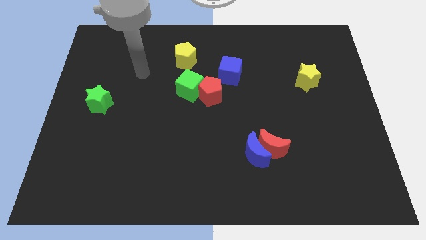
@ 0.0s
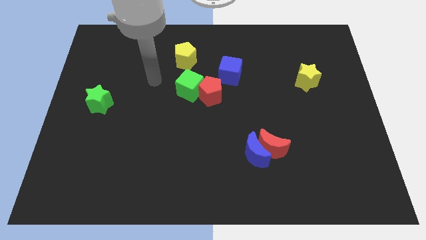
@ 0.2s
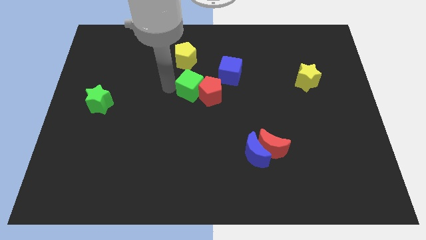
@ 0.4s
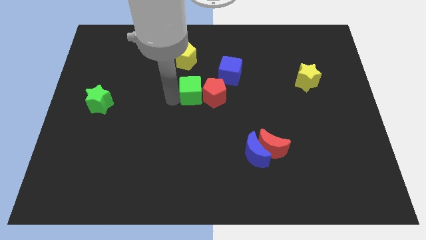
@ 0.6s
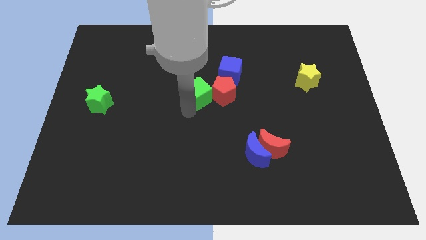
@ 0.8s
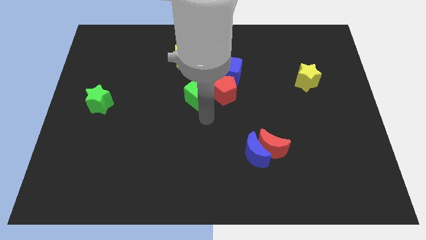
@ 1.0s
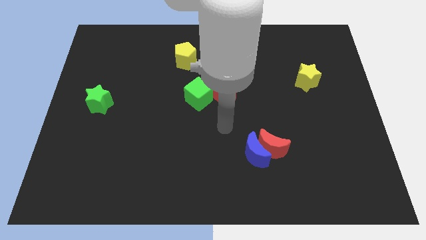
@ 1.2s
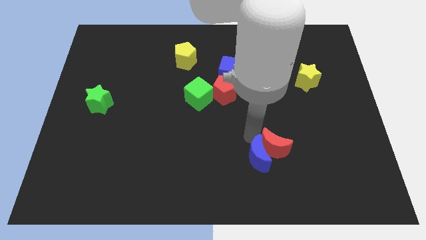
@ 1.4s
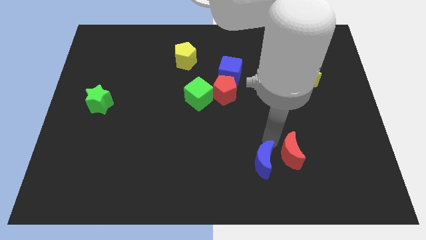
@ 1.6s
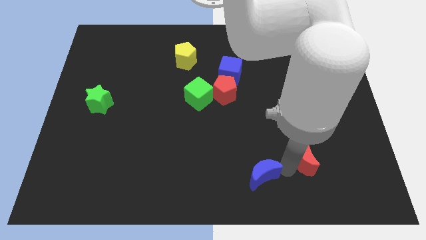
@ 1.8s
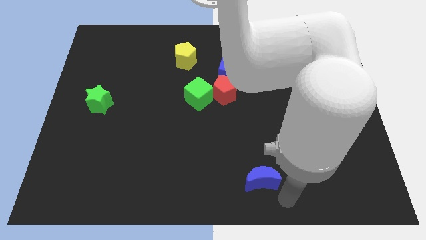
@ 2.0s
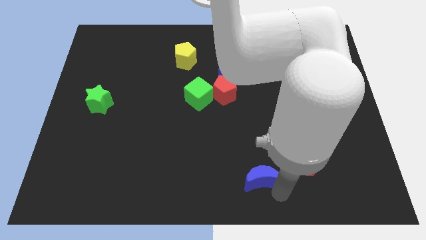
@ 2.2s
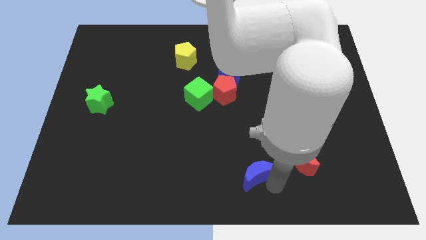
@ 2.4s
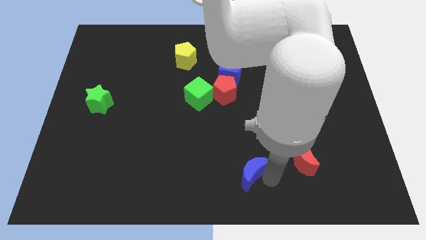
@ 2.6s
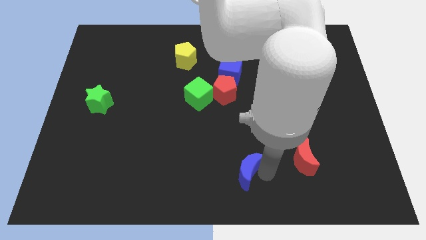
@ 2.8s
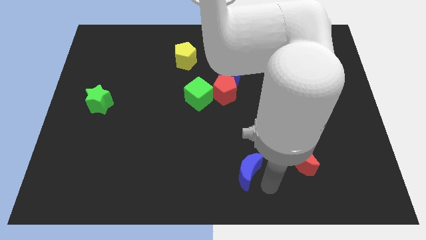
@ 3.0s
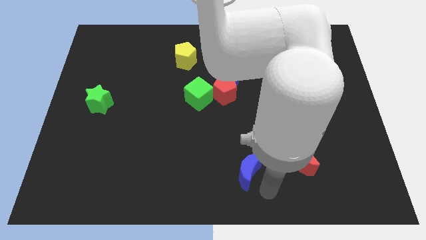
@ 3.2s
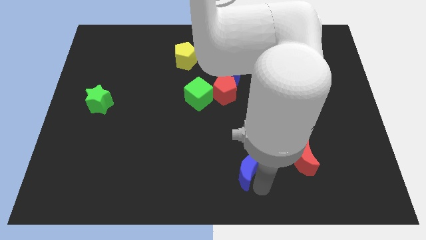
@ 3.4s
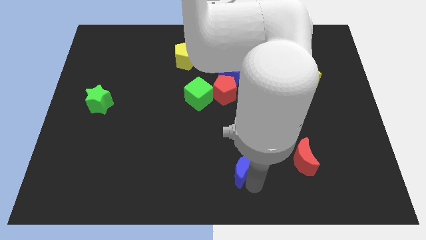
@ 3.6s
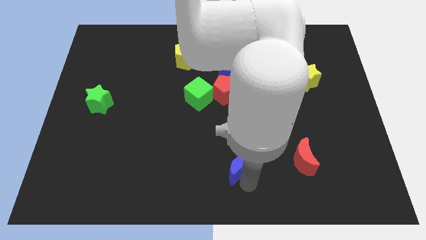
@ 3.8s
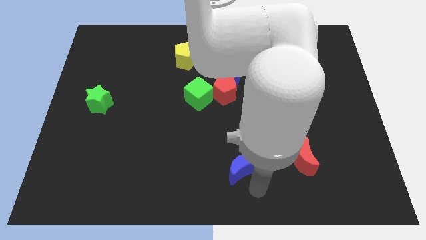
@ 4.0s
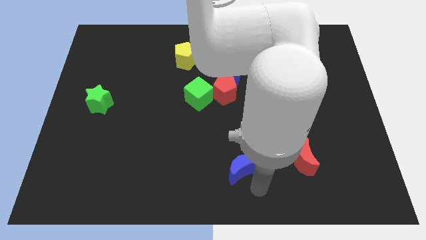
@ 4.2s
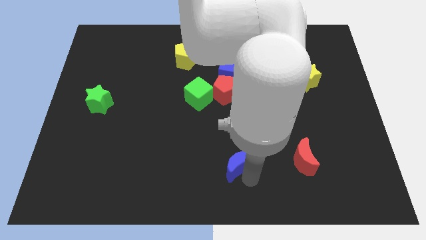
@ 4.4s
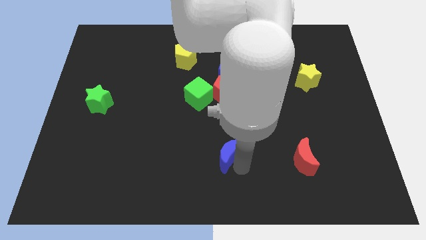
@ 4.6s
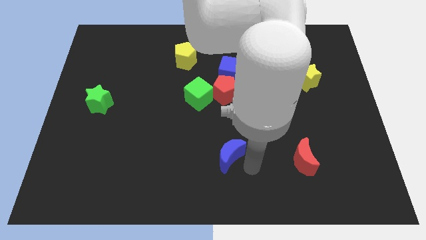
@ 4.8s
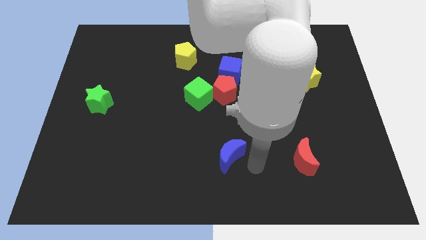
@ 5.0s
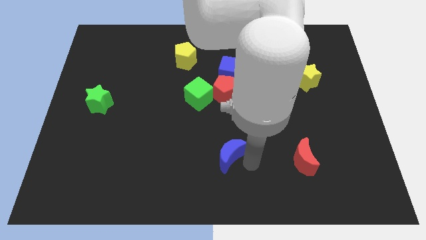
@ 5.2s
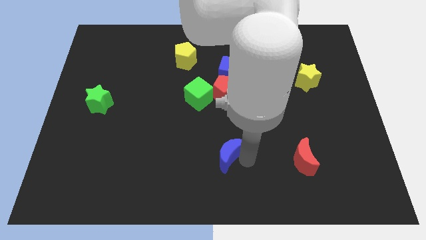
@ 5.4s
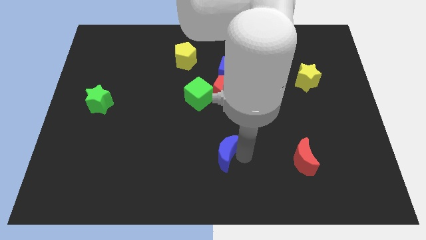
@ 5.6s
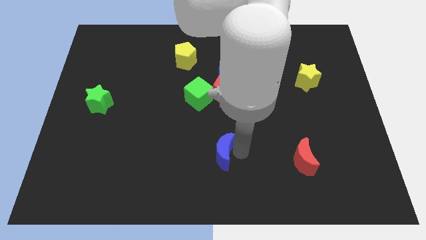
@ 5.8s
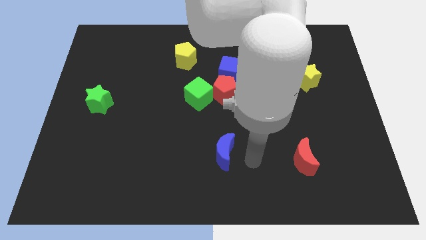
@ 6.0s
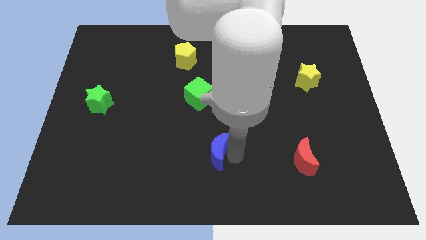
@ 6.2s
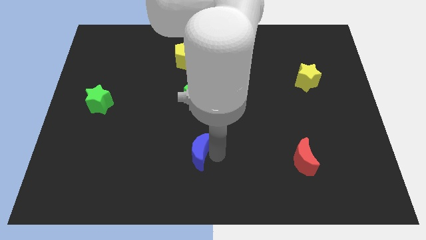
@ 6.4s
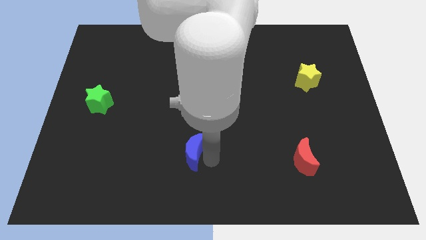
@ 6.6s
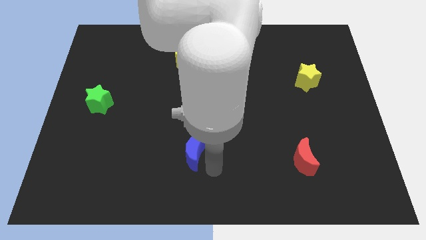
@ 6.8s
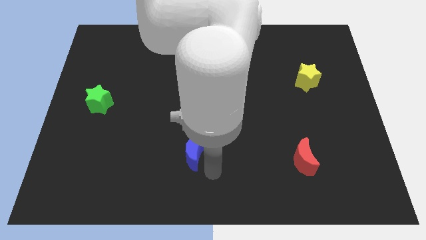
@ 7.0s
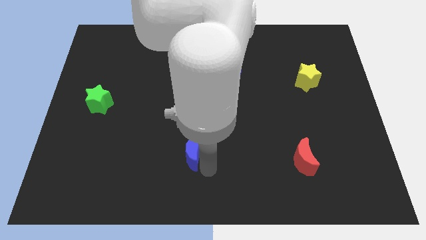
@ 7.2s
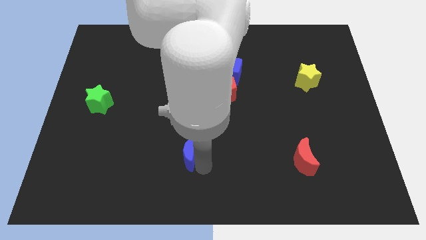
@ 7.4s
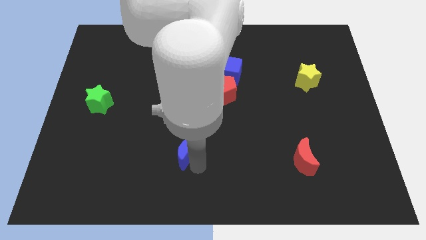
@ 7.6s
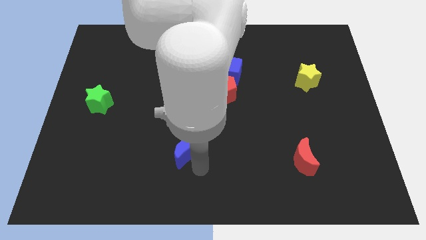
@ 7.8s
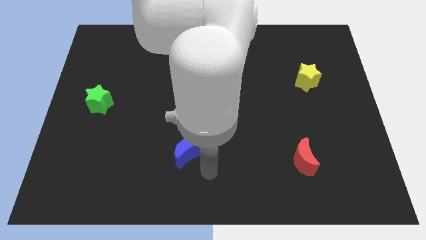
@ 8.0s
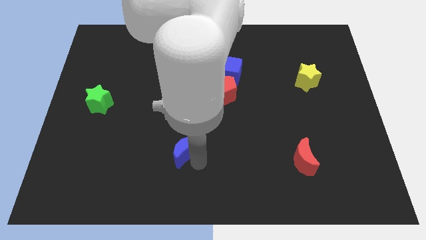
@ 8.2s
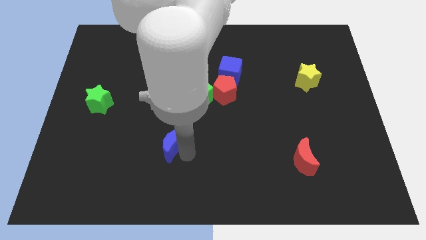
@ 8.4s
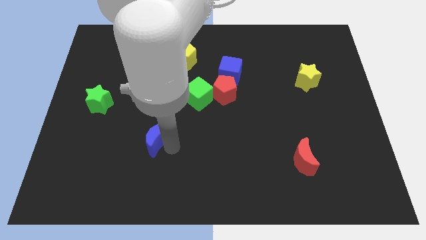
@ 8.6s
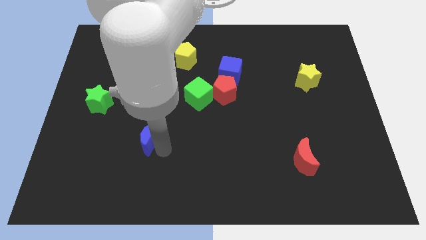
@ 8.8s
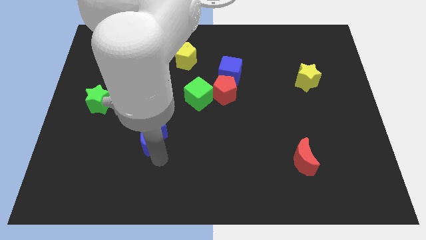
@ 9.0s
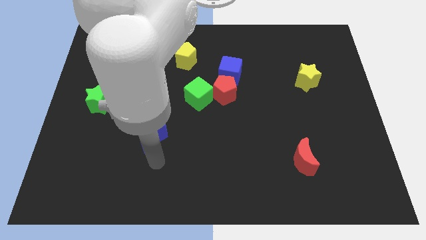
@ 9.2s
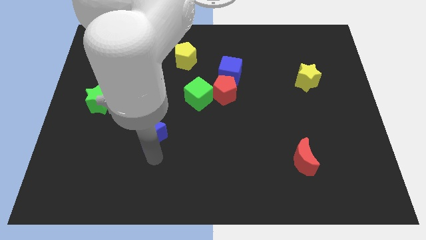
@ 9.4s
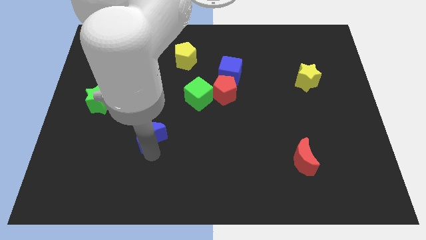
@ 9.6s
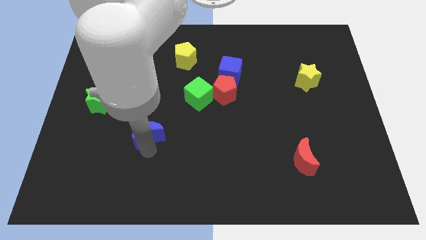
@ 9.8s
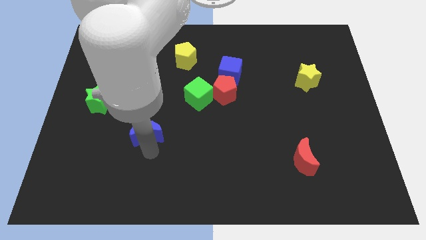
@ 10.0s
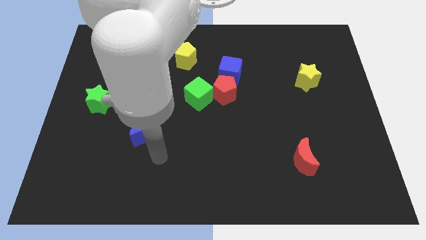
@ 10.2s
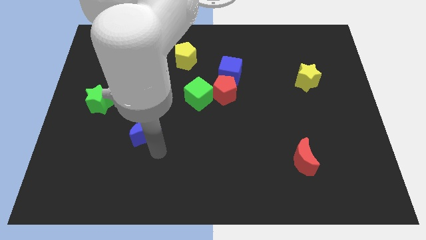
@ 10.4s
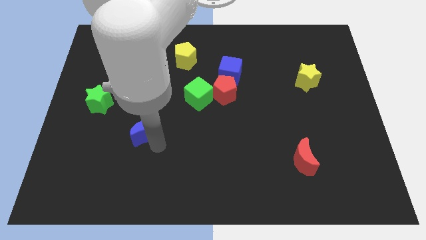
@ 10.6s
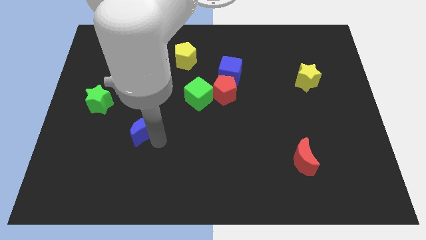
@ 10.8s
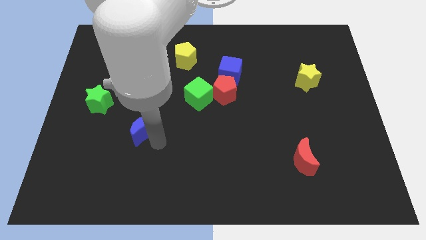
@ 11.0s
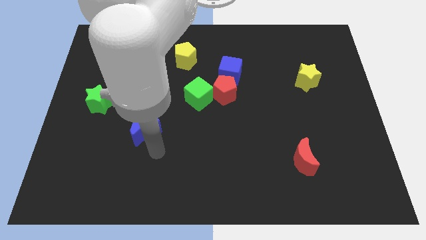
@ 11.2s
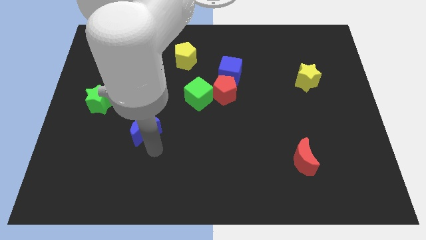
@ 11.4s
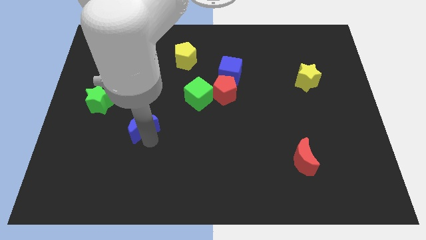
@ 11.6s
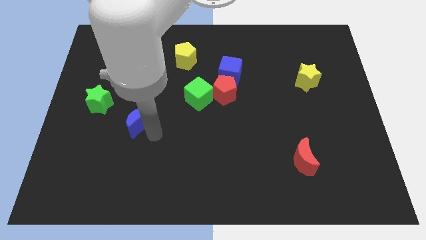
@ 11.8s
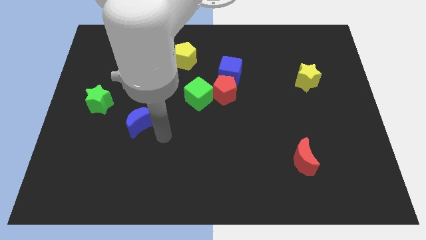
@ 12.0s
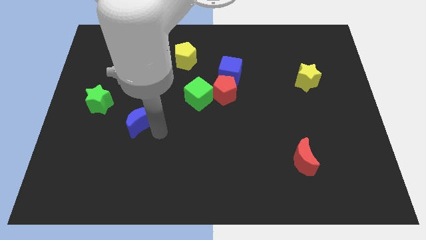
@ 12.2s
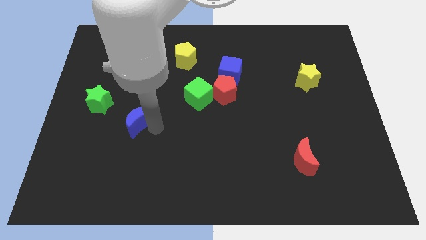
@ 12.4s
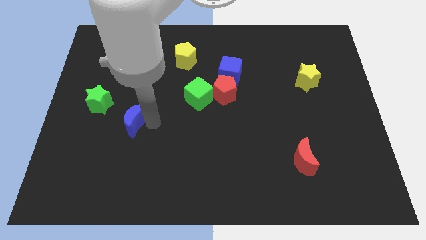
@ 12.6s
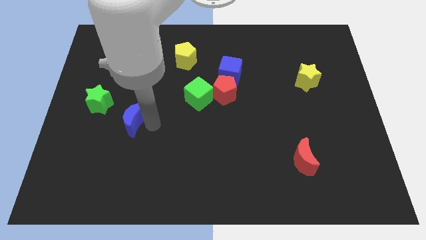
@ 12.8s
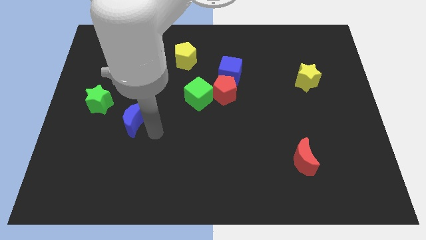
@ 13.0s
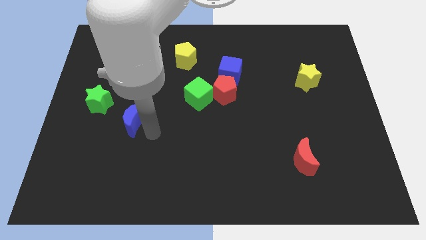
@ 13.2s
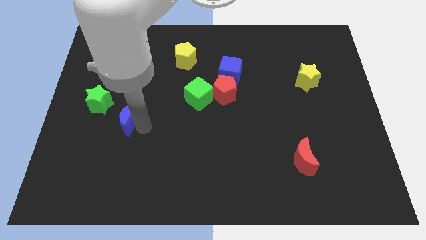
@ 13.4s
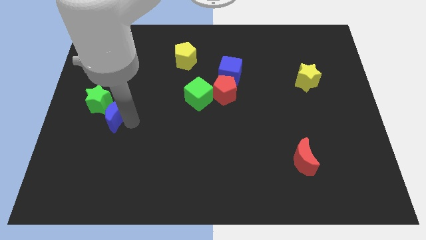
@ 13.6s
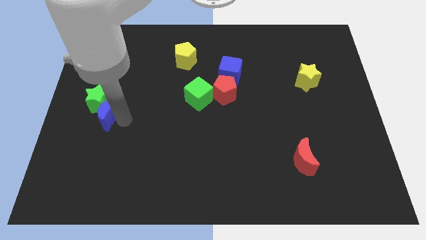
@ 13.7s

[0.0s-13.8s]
move the blue moon to the green star

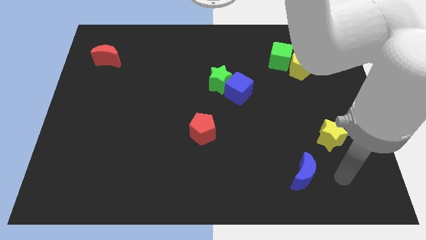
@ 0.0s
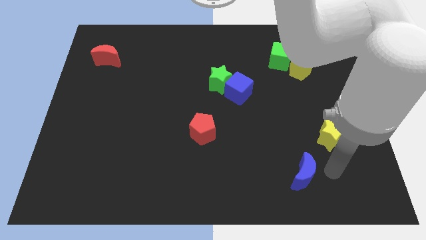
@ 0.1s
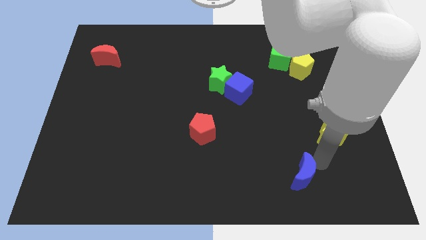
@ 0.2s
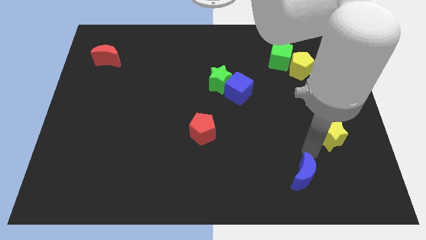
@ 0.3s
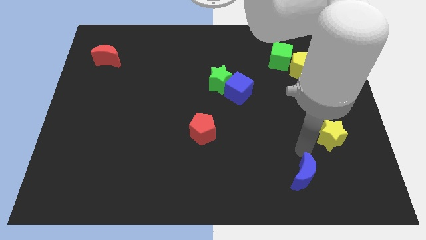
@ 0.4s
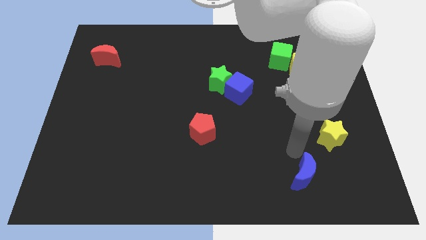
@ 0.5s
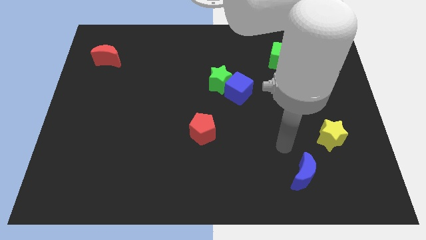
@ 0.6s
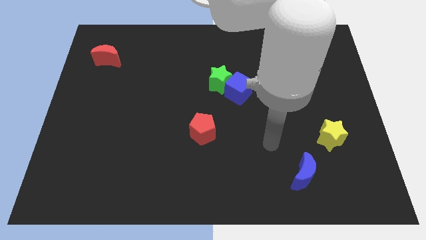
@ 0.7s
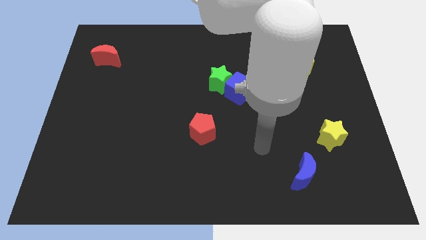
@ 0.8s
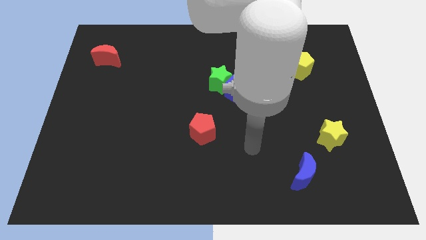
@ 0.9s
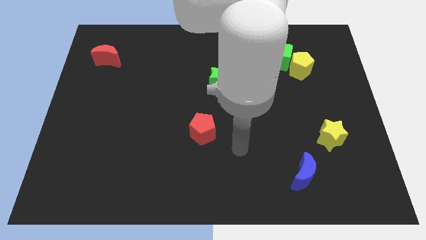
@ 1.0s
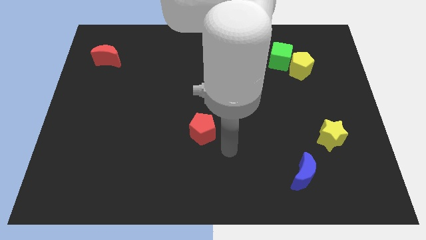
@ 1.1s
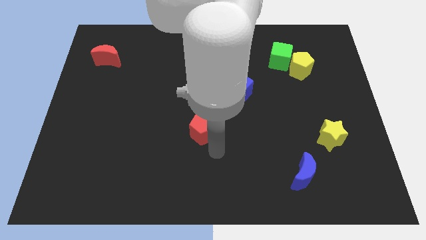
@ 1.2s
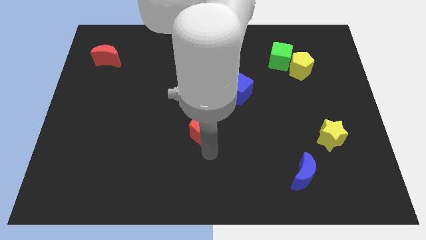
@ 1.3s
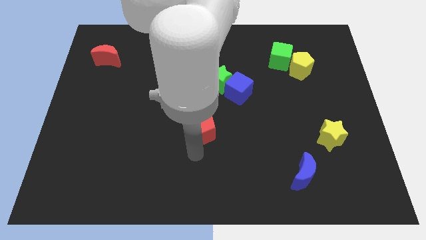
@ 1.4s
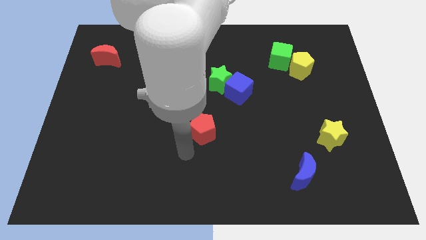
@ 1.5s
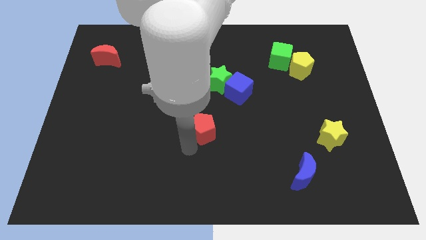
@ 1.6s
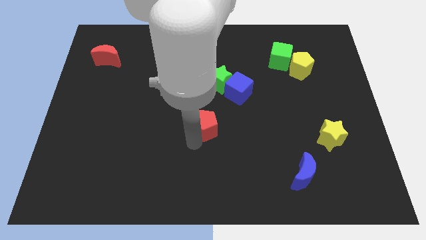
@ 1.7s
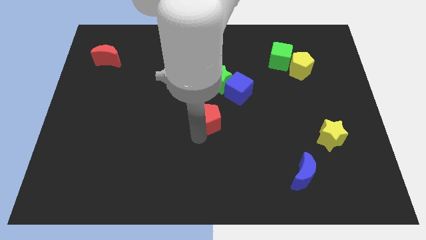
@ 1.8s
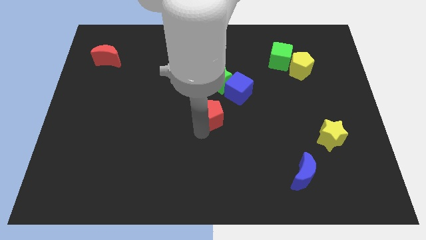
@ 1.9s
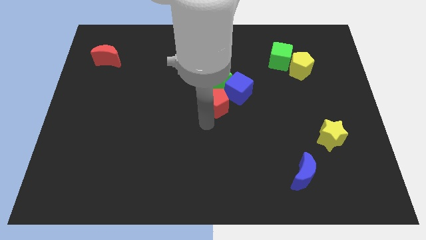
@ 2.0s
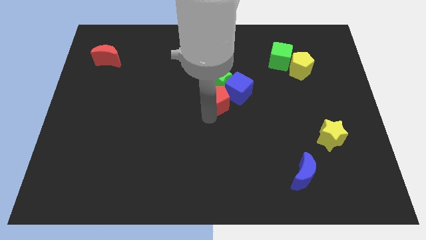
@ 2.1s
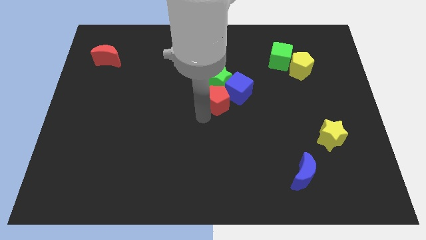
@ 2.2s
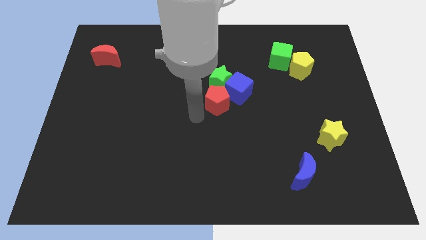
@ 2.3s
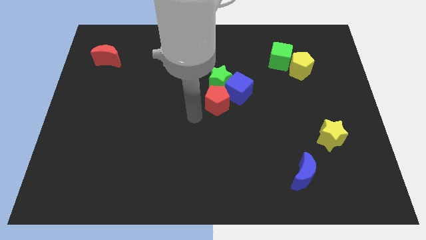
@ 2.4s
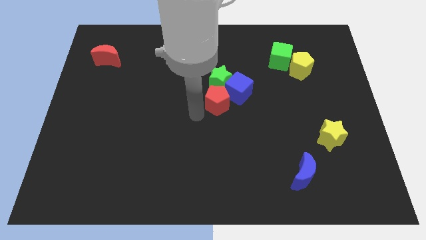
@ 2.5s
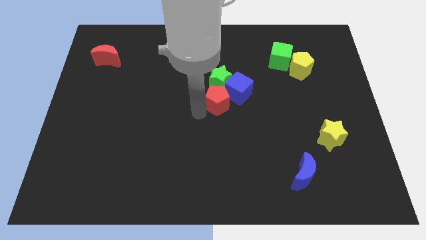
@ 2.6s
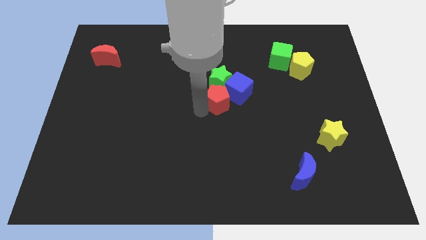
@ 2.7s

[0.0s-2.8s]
push the red pentagon towards the blue cube
